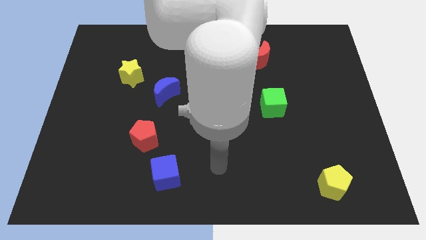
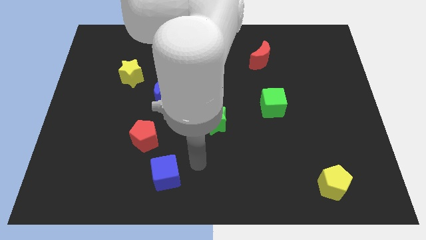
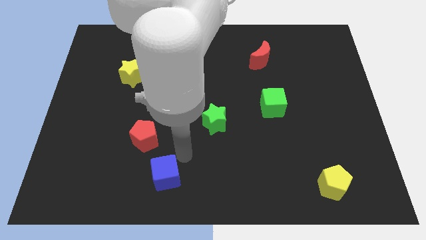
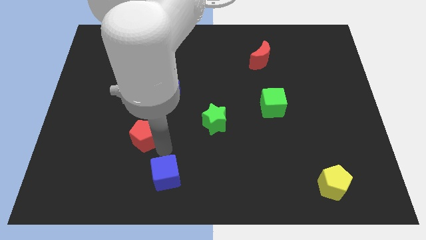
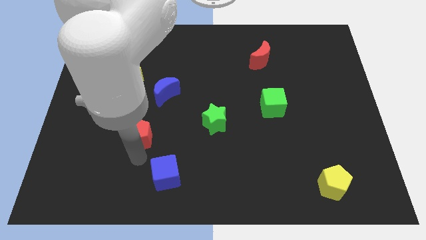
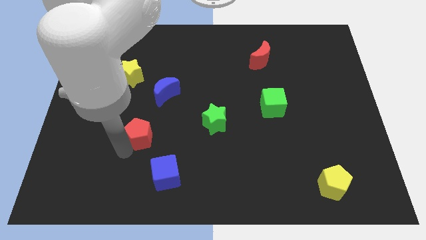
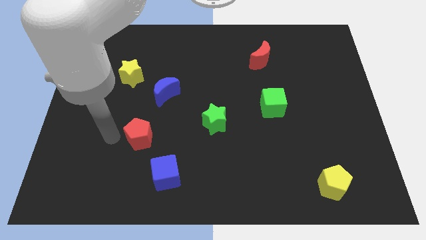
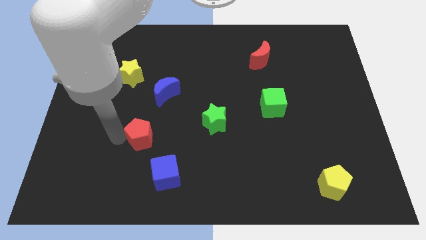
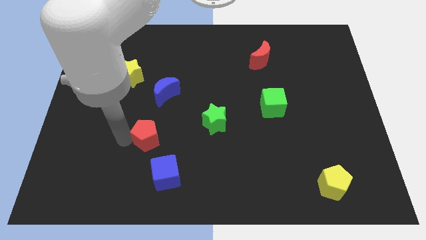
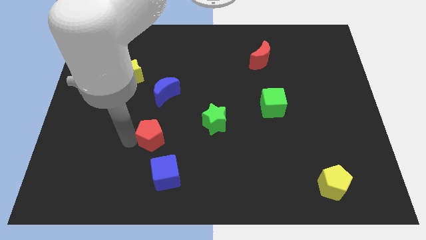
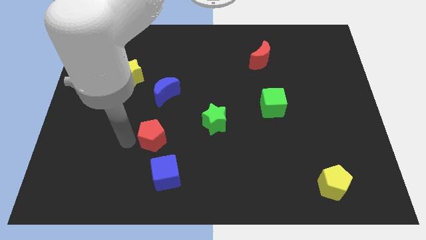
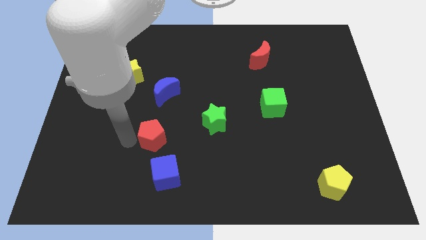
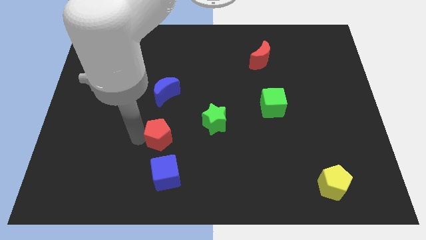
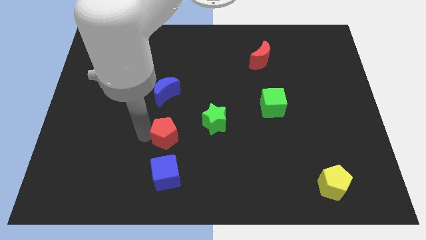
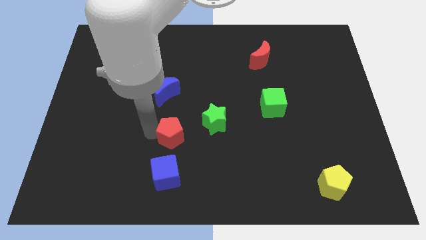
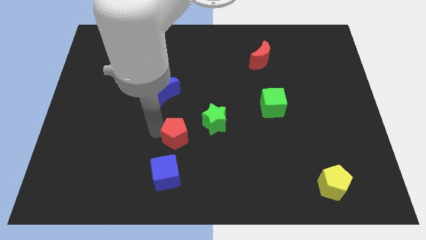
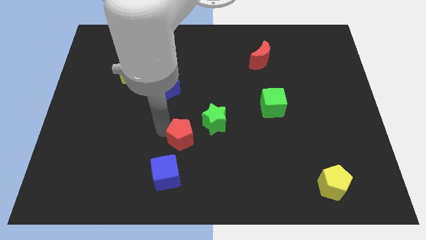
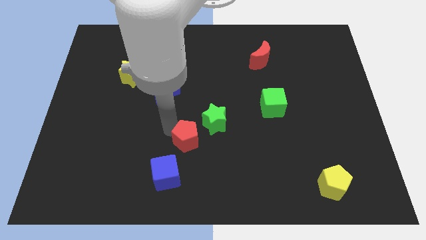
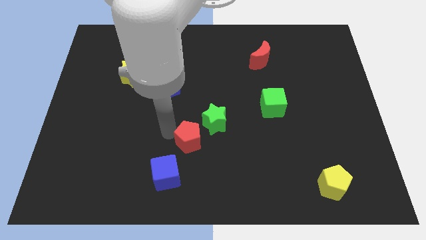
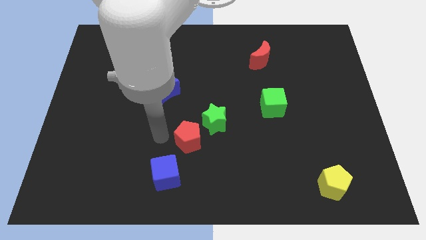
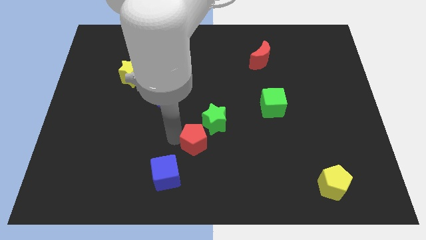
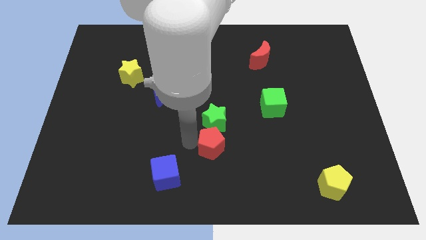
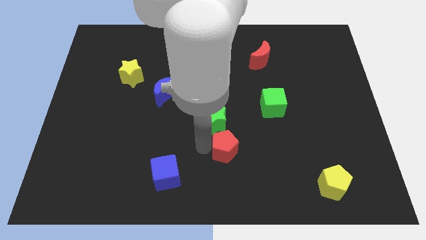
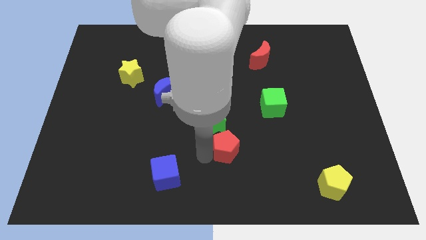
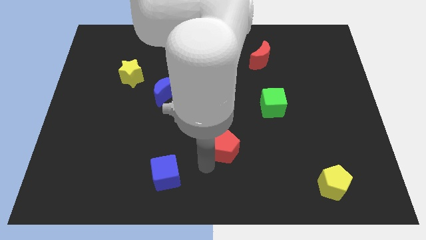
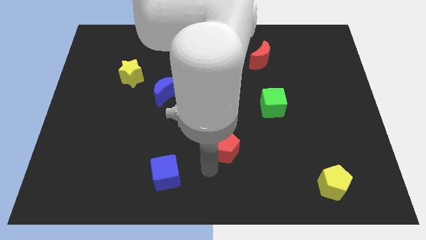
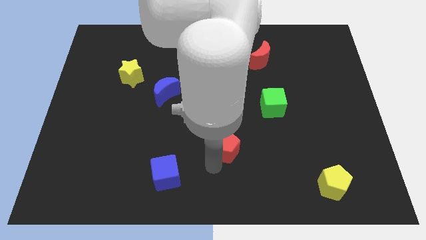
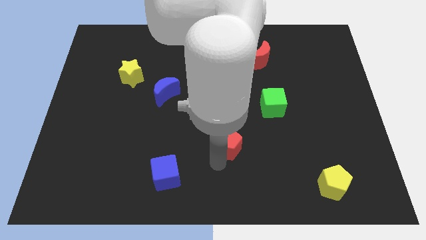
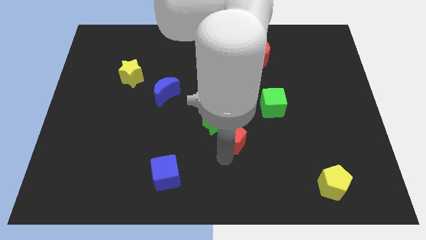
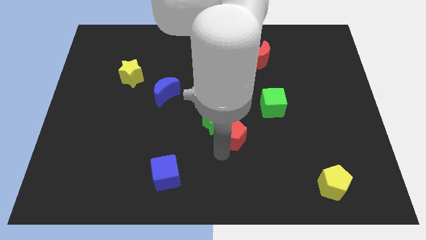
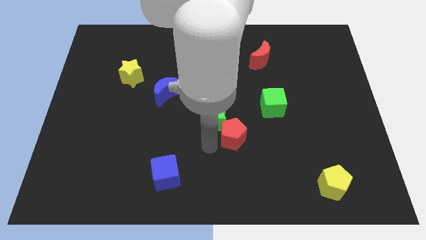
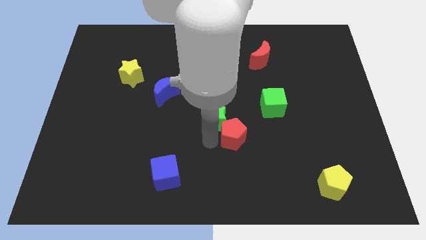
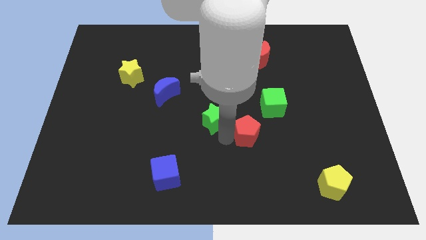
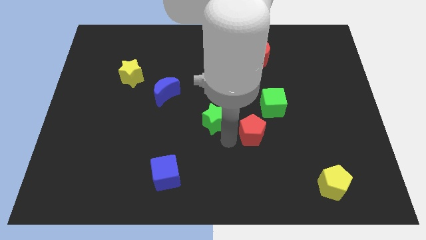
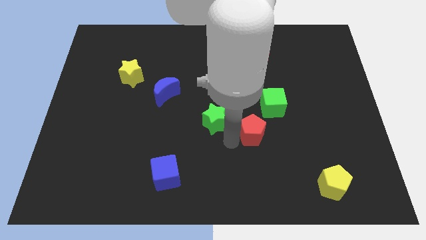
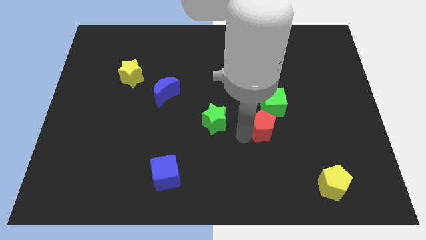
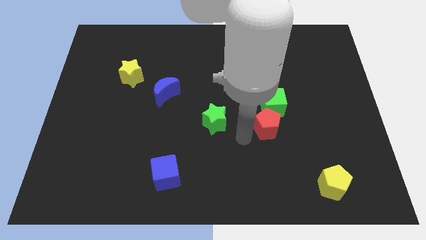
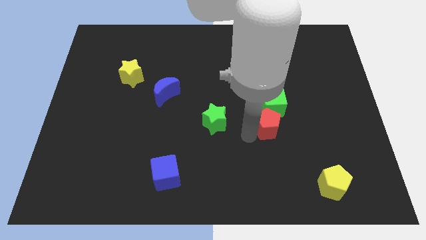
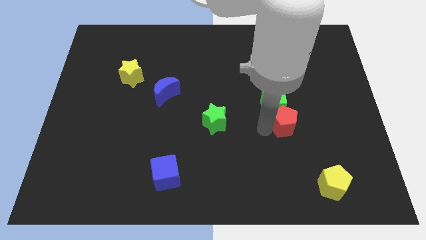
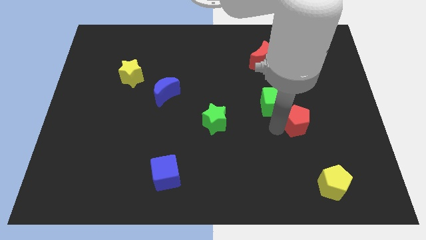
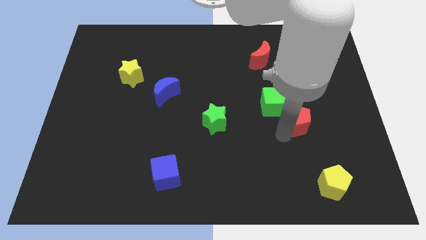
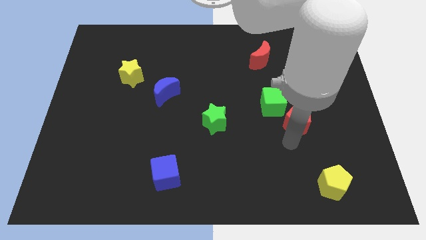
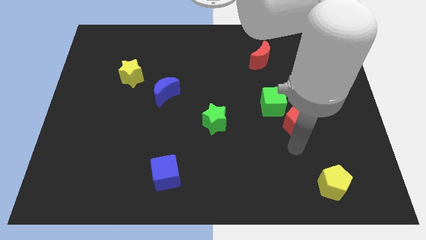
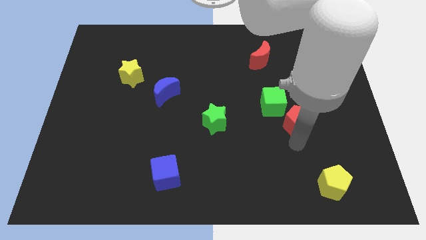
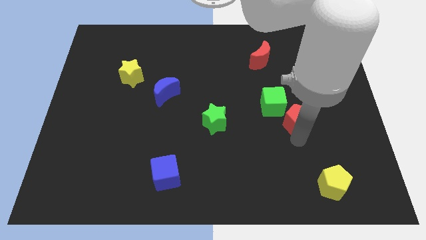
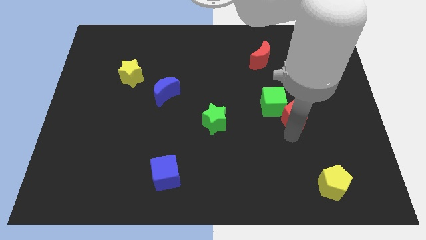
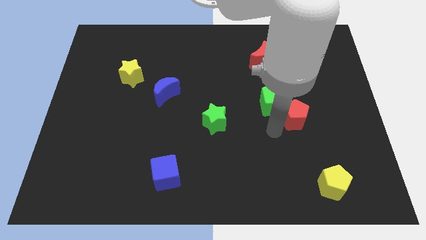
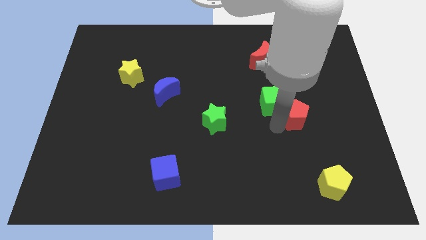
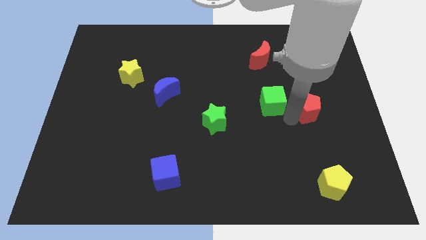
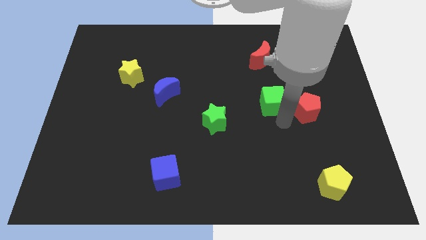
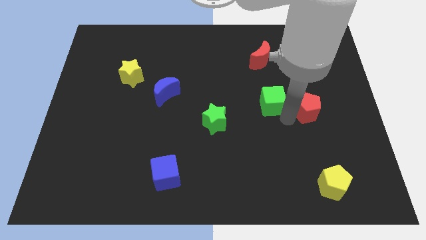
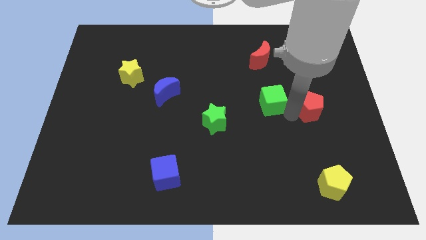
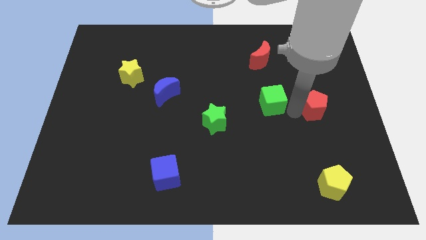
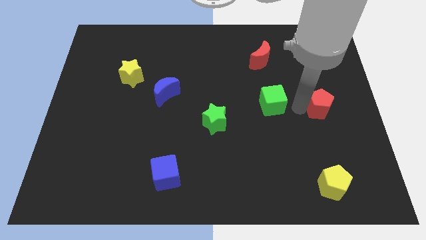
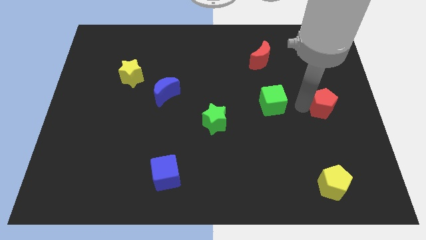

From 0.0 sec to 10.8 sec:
put the red pentagon to the right side of the board

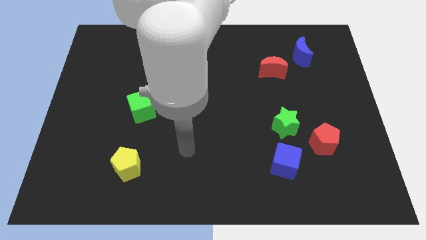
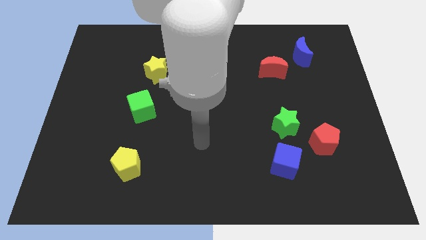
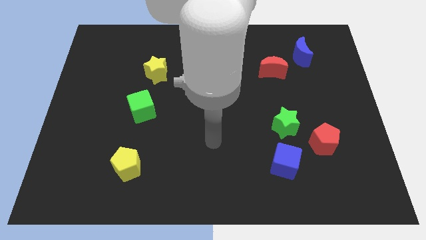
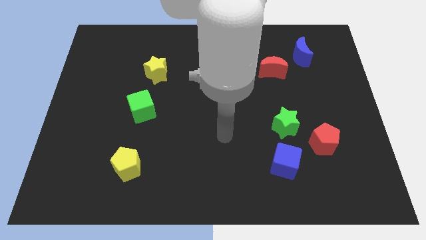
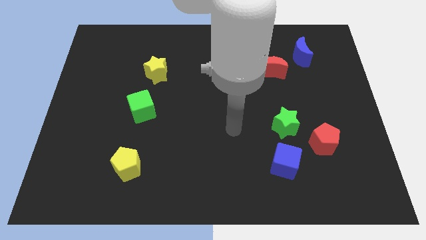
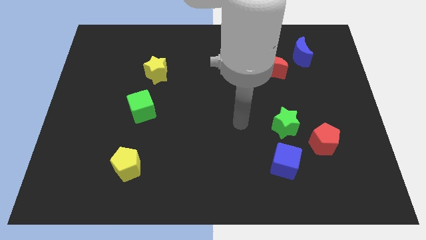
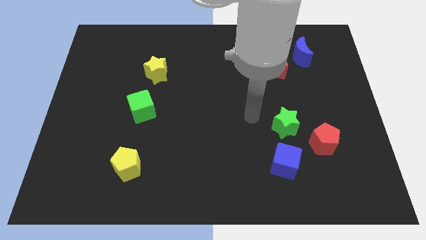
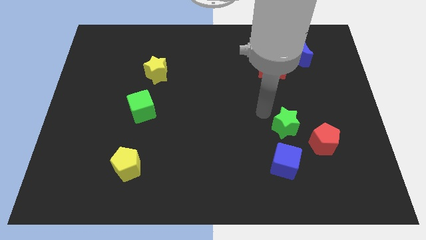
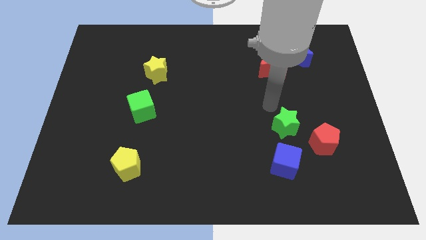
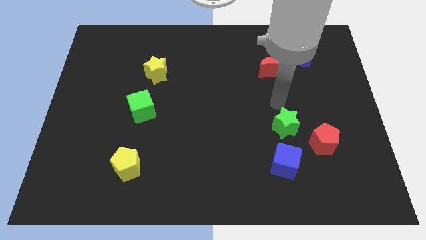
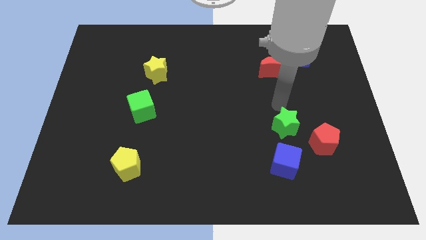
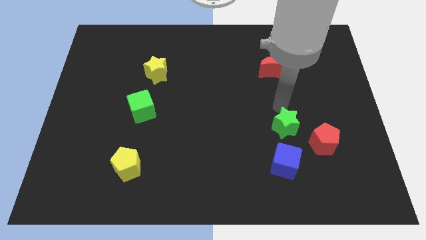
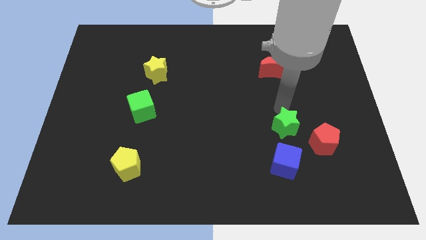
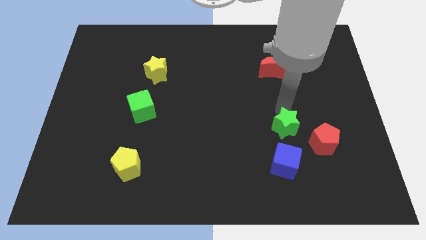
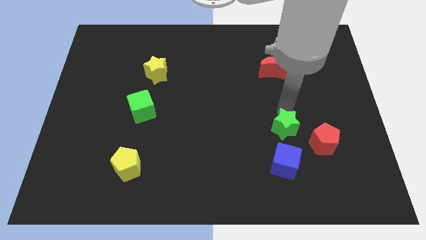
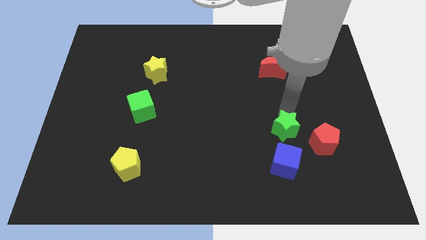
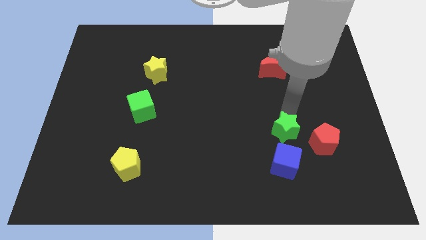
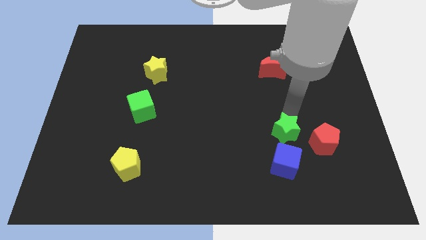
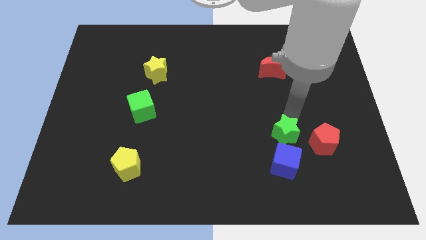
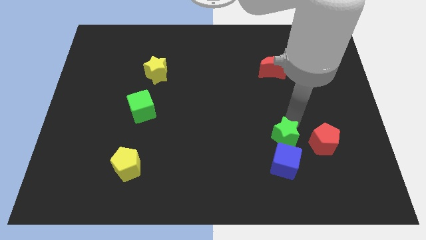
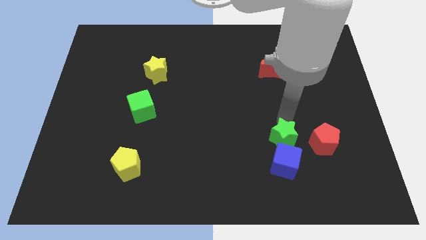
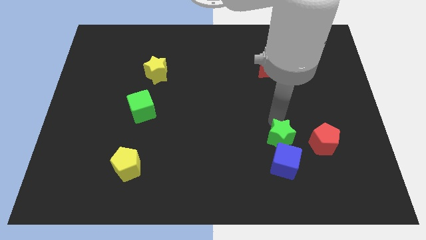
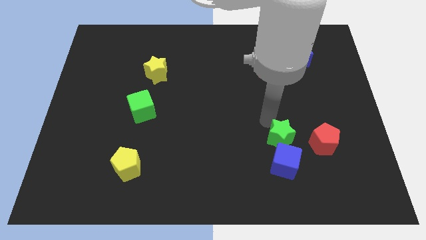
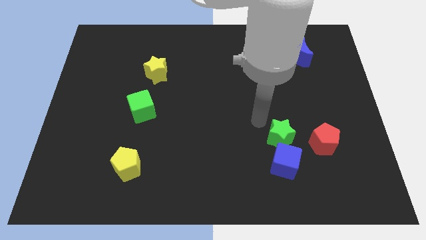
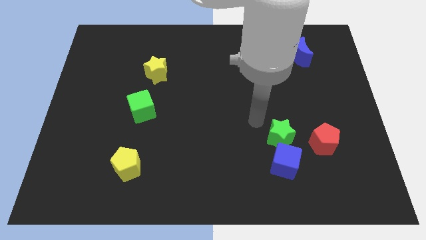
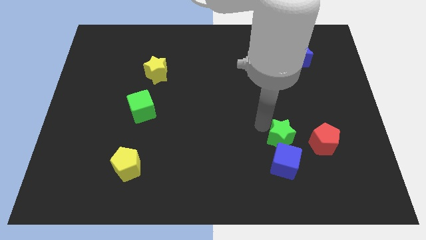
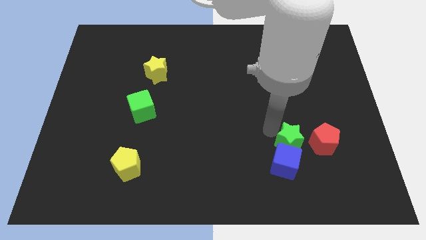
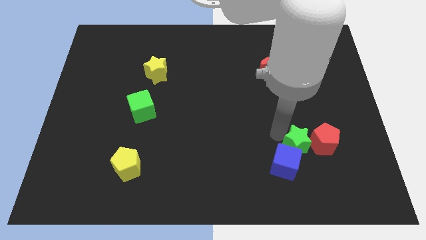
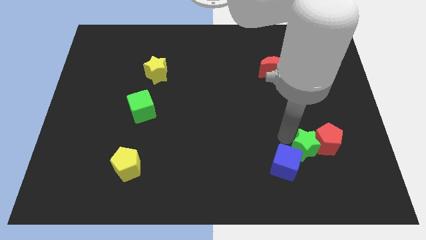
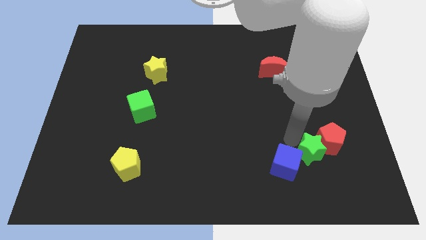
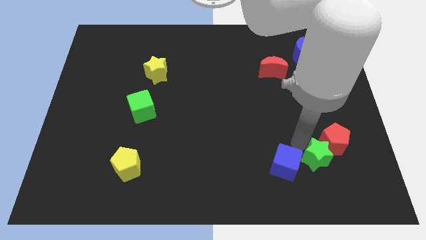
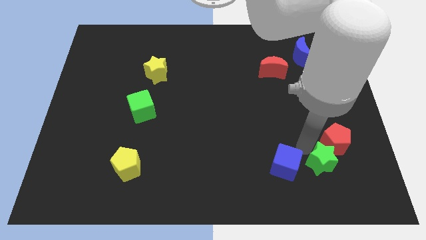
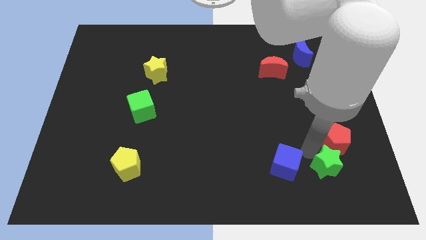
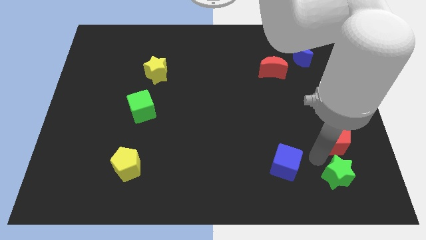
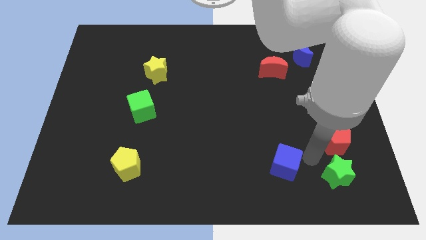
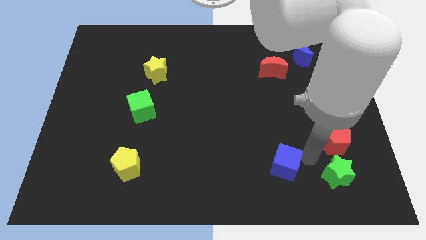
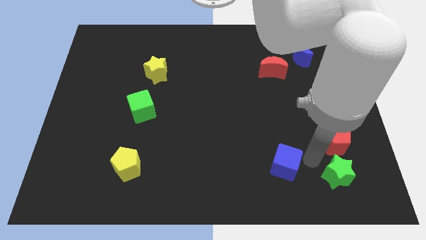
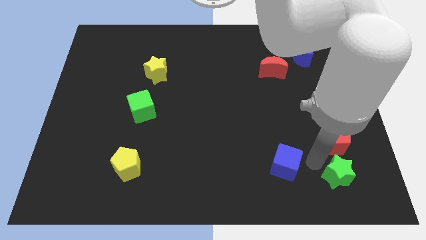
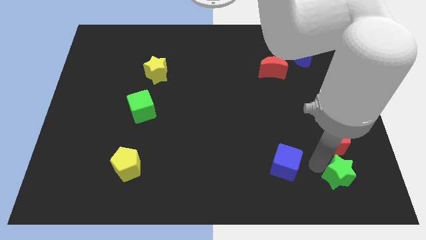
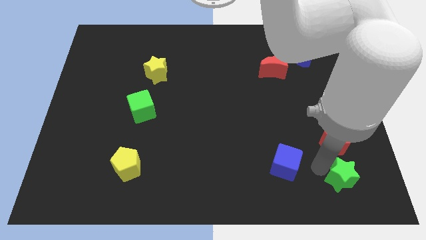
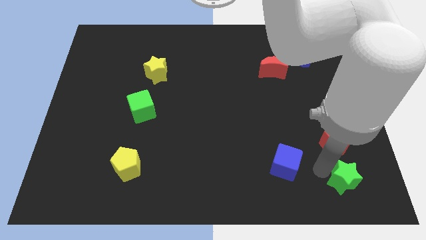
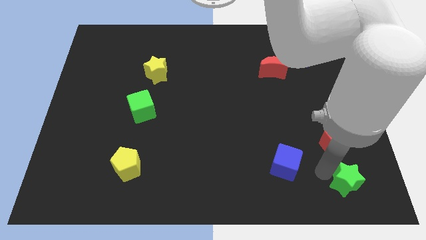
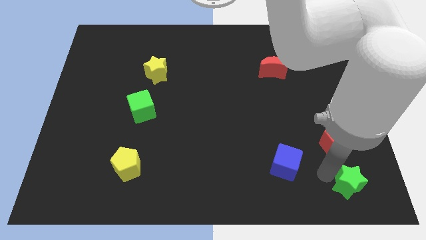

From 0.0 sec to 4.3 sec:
put the green star to the lower right corner
